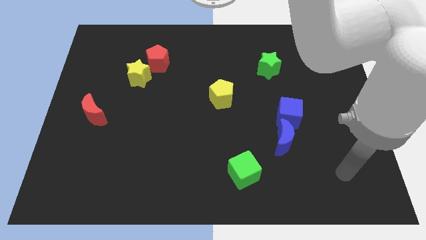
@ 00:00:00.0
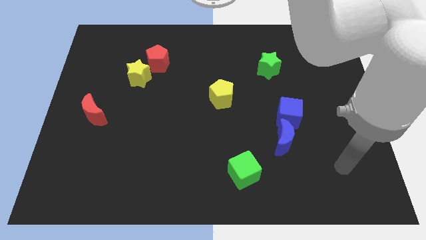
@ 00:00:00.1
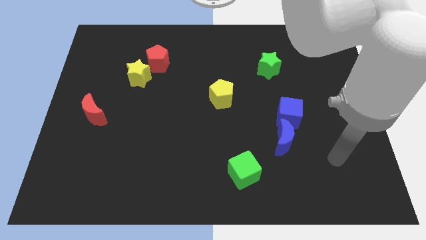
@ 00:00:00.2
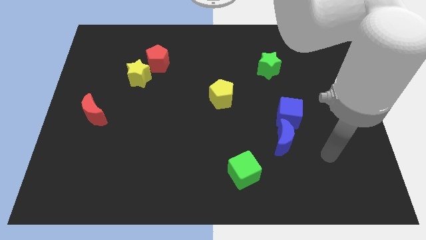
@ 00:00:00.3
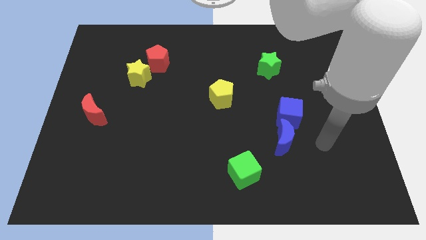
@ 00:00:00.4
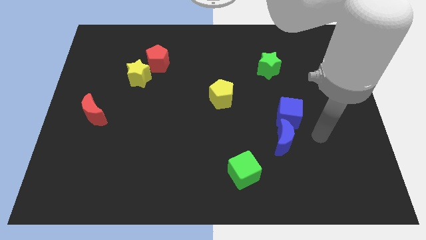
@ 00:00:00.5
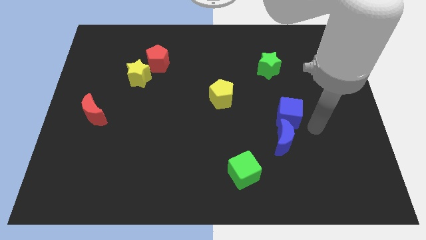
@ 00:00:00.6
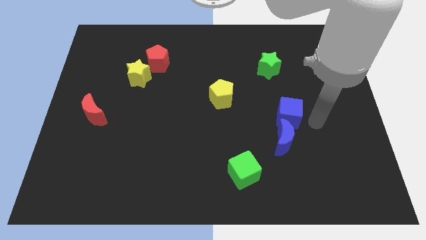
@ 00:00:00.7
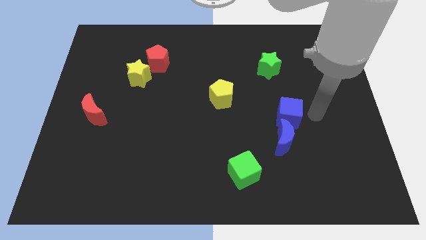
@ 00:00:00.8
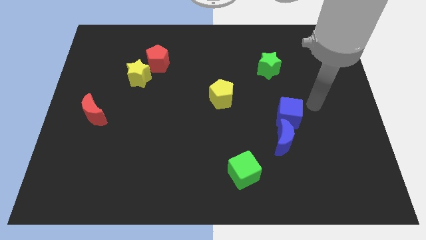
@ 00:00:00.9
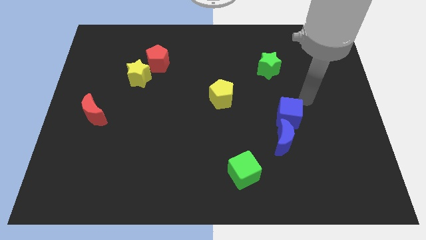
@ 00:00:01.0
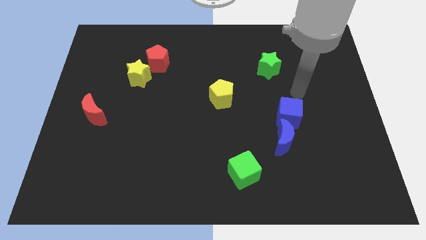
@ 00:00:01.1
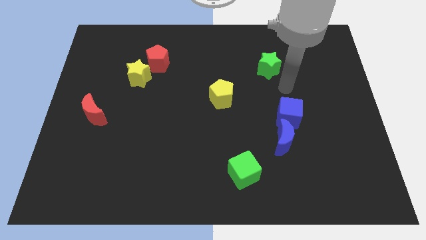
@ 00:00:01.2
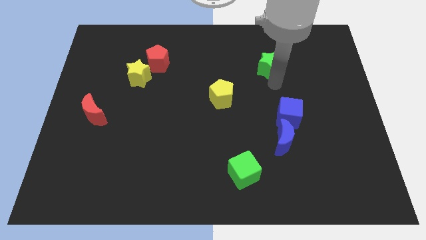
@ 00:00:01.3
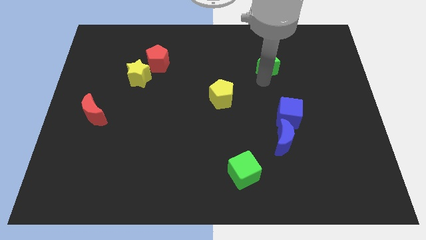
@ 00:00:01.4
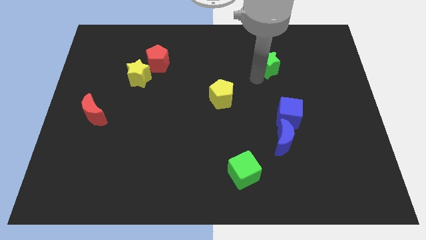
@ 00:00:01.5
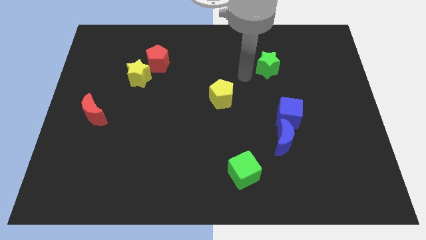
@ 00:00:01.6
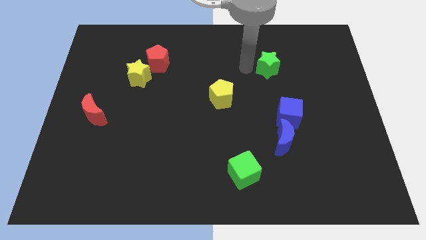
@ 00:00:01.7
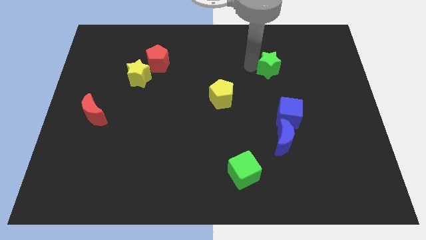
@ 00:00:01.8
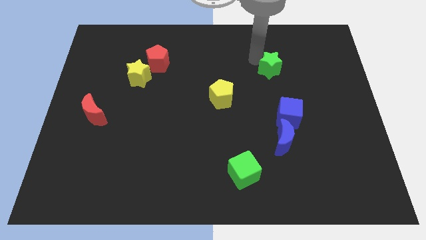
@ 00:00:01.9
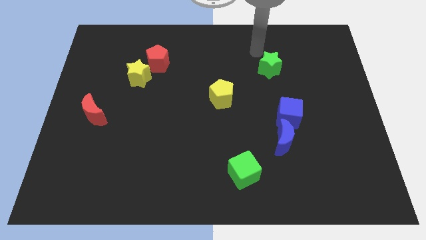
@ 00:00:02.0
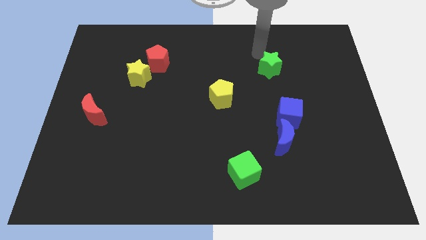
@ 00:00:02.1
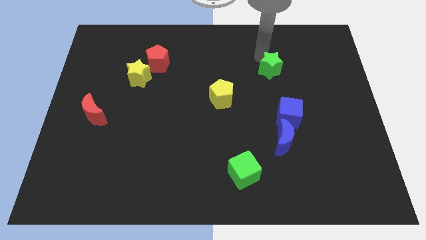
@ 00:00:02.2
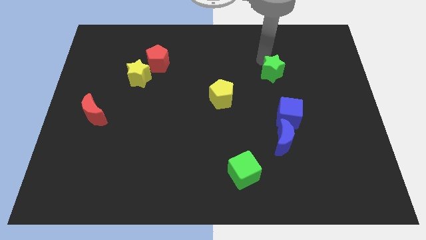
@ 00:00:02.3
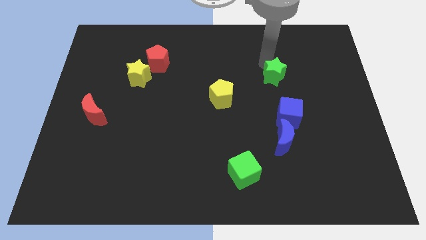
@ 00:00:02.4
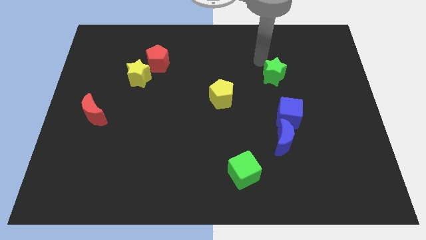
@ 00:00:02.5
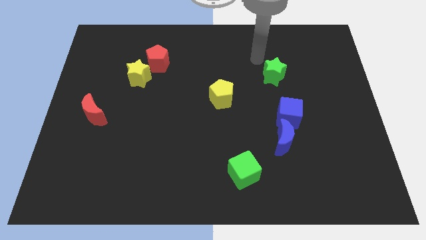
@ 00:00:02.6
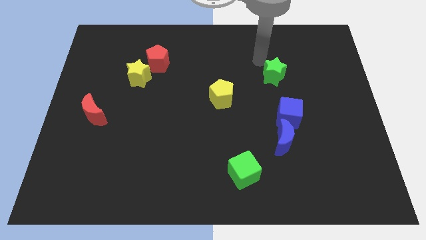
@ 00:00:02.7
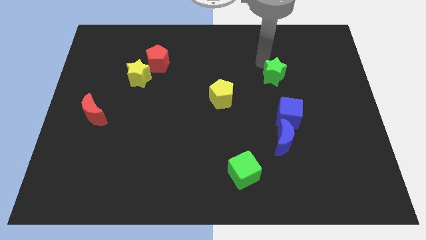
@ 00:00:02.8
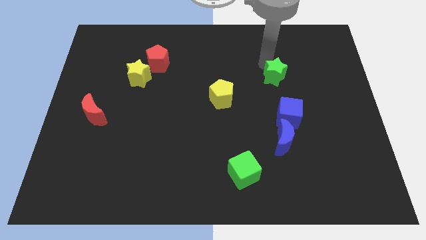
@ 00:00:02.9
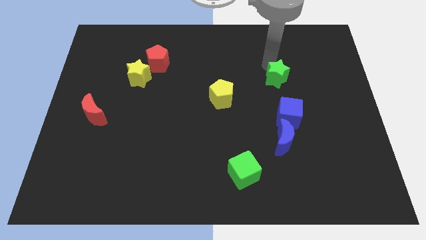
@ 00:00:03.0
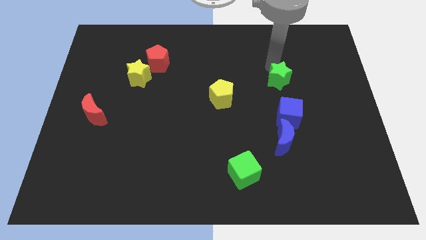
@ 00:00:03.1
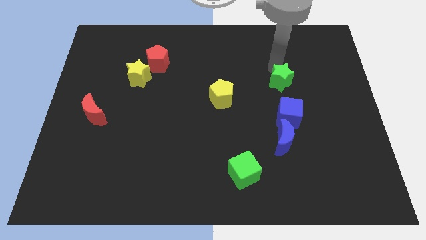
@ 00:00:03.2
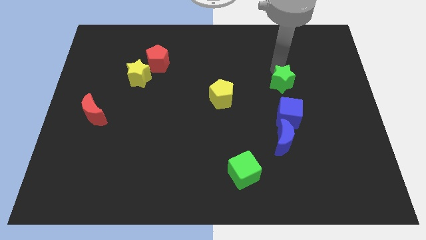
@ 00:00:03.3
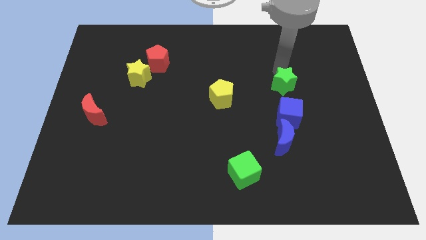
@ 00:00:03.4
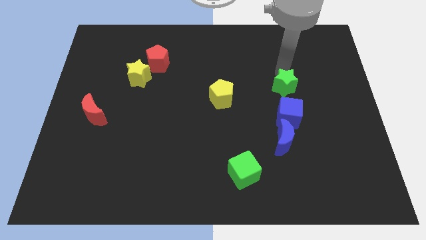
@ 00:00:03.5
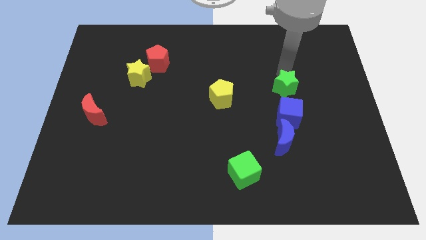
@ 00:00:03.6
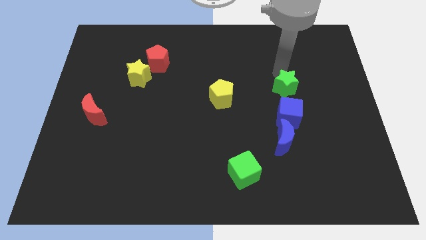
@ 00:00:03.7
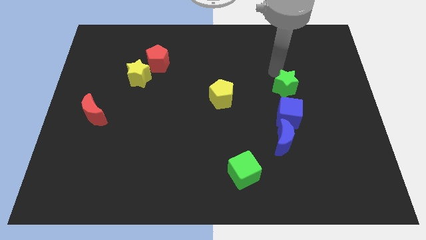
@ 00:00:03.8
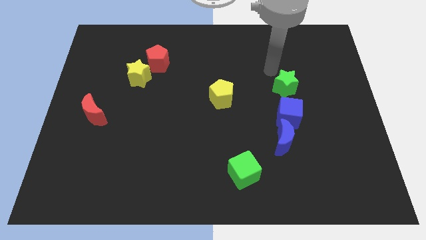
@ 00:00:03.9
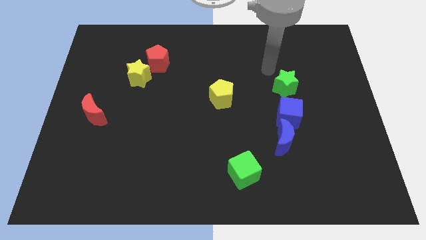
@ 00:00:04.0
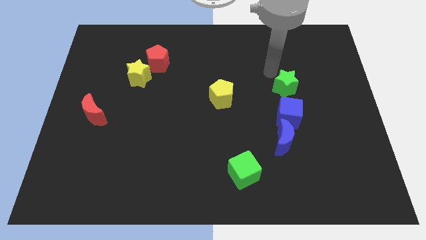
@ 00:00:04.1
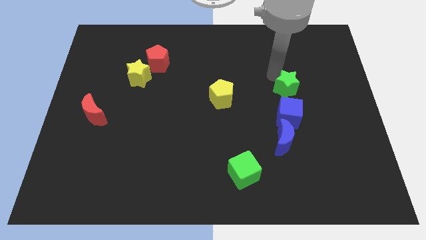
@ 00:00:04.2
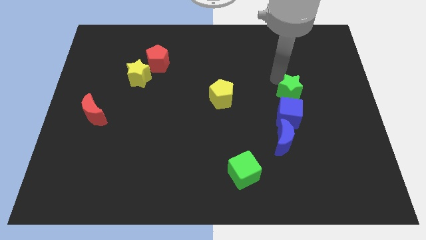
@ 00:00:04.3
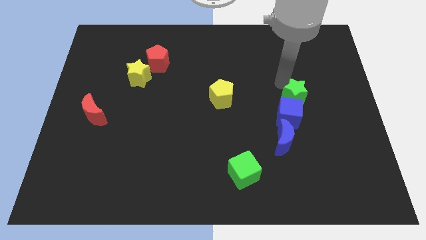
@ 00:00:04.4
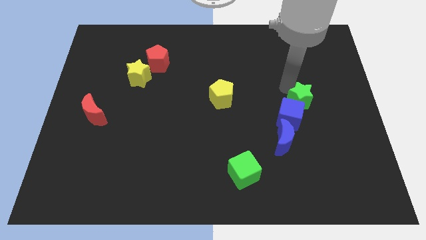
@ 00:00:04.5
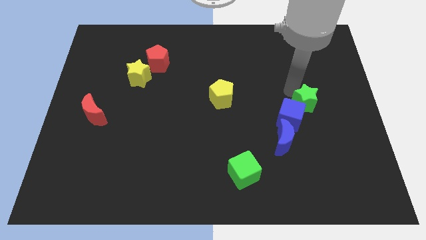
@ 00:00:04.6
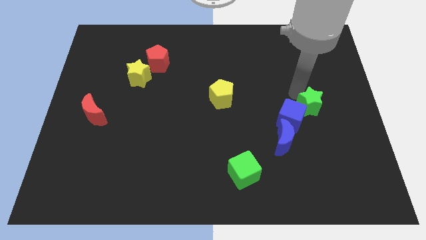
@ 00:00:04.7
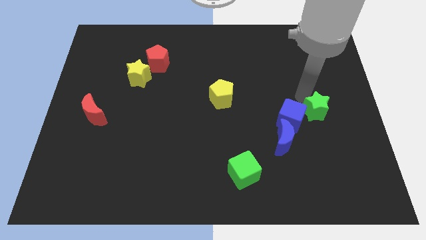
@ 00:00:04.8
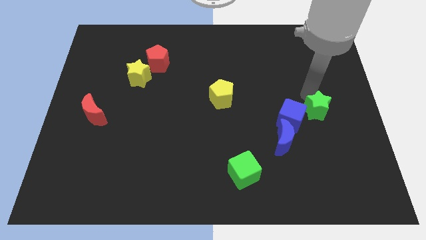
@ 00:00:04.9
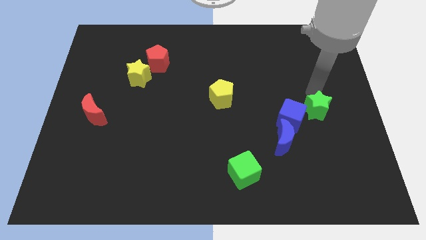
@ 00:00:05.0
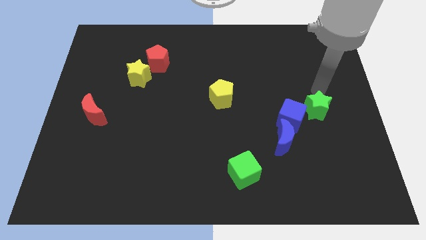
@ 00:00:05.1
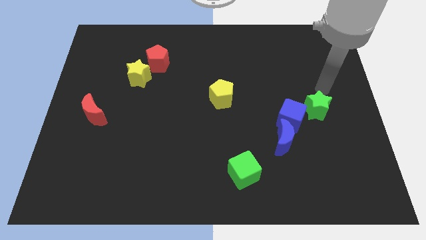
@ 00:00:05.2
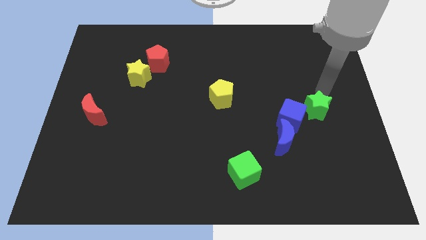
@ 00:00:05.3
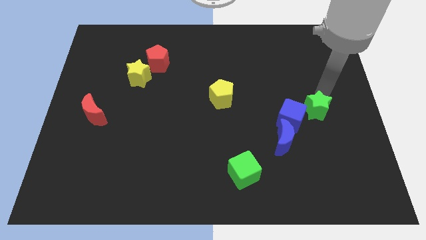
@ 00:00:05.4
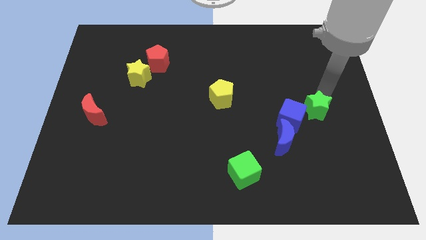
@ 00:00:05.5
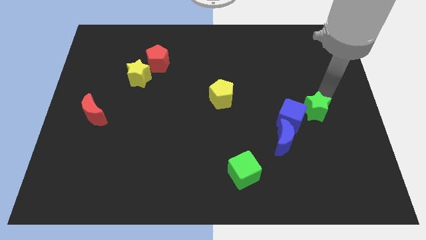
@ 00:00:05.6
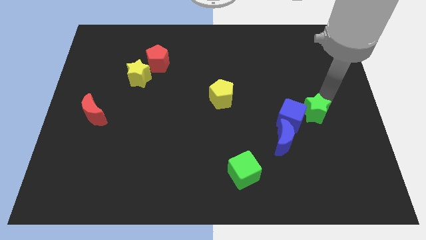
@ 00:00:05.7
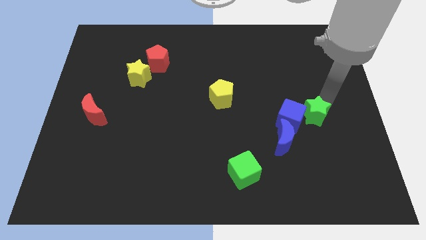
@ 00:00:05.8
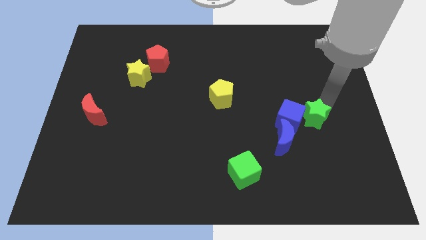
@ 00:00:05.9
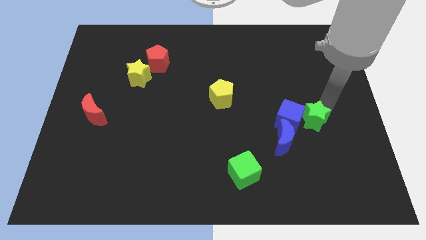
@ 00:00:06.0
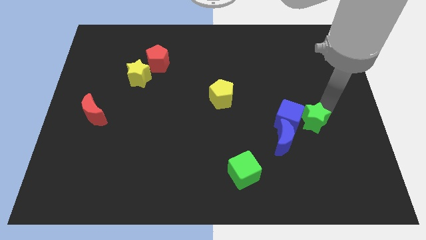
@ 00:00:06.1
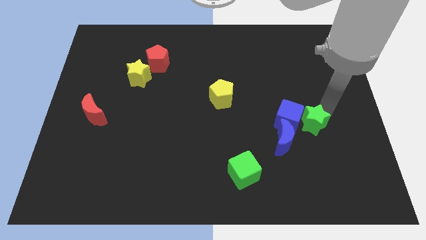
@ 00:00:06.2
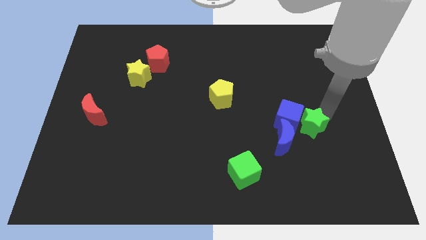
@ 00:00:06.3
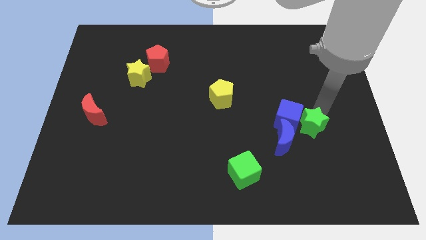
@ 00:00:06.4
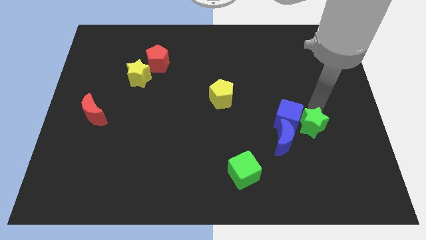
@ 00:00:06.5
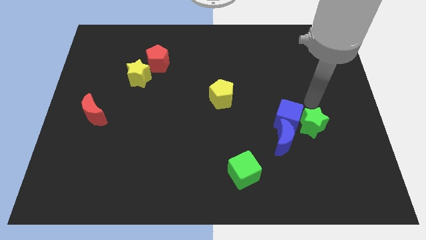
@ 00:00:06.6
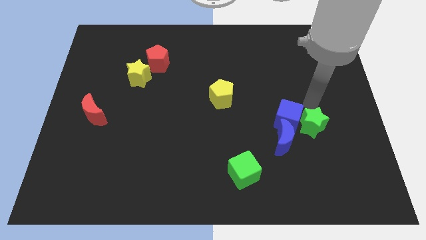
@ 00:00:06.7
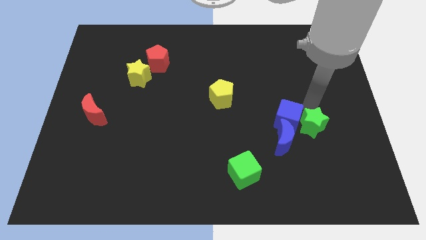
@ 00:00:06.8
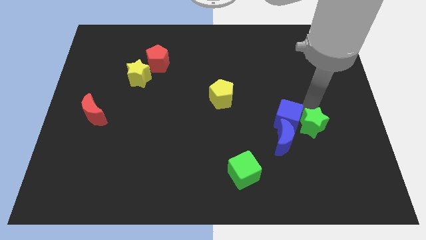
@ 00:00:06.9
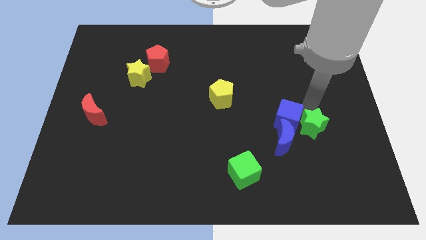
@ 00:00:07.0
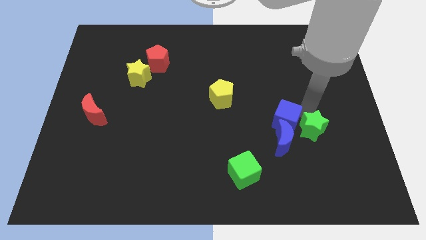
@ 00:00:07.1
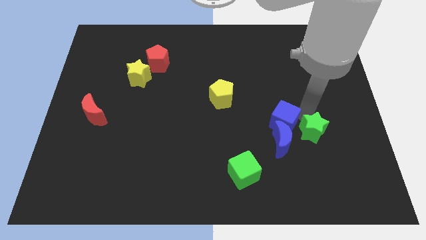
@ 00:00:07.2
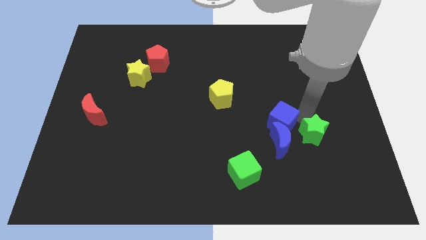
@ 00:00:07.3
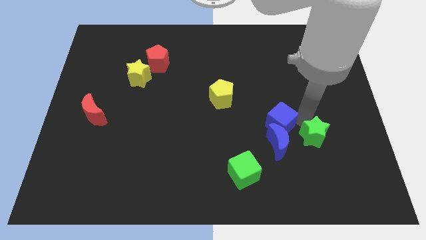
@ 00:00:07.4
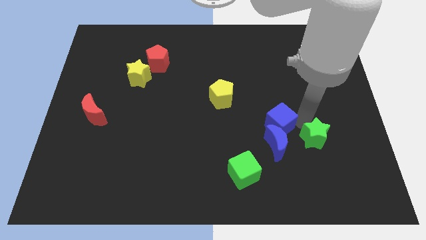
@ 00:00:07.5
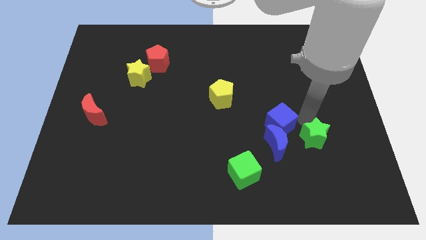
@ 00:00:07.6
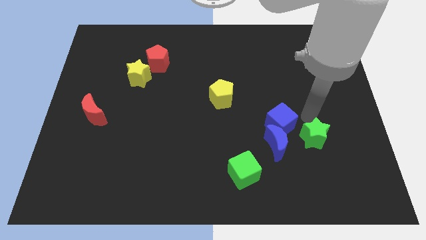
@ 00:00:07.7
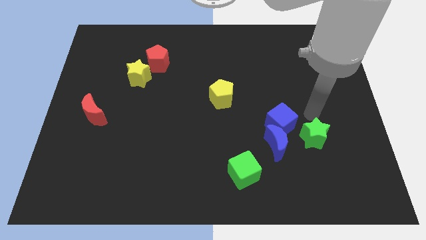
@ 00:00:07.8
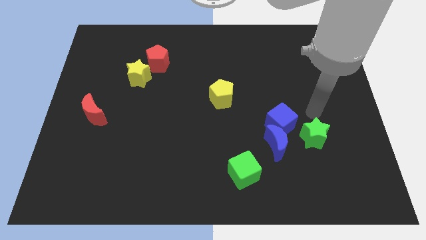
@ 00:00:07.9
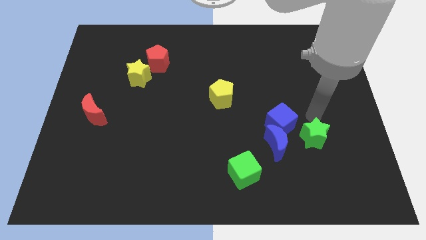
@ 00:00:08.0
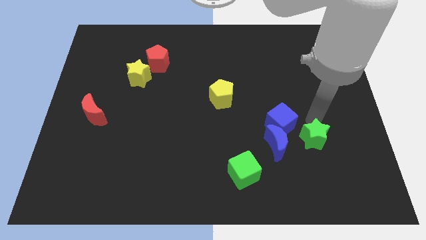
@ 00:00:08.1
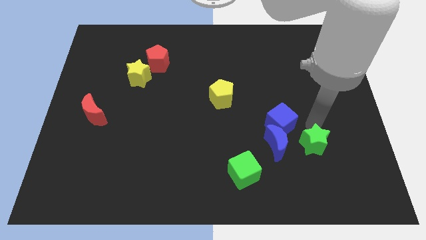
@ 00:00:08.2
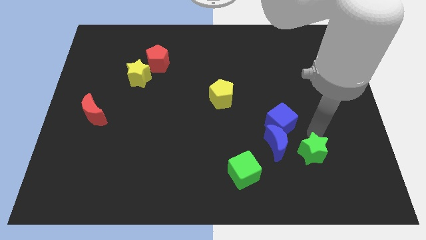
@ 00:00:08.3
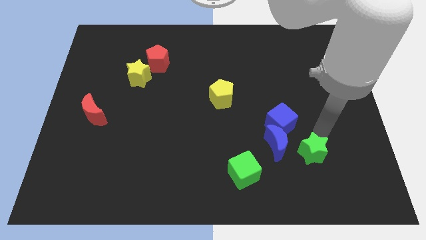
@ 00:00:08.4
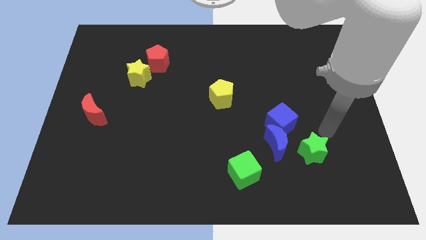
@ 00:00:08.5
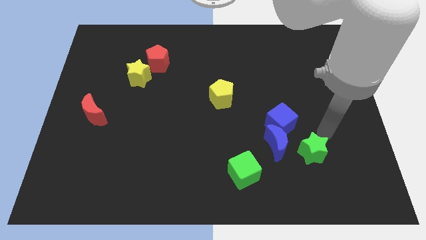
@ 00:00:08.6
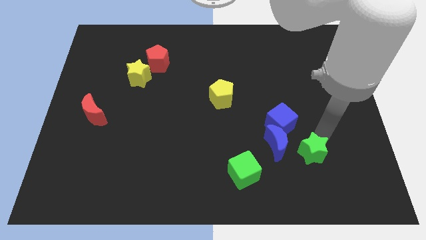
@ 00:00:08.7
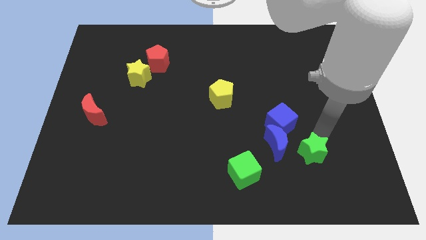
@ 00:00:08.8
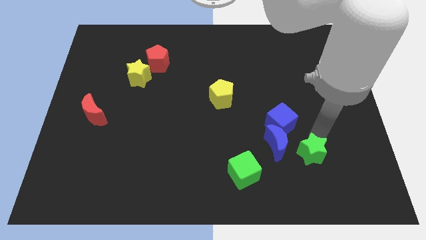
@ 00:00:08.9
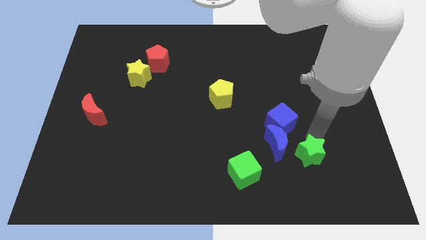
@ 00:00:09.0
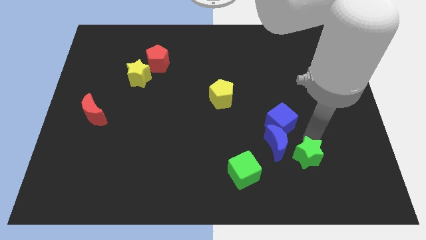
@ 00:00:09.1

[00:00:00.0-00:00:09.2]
slide the green star to the right of the green cube
